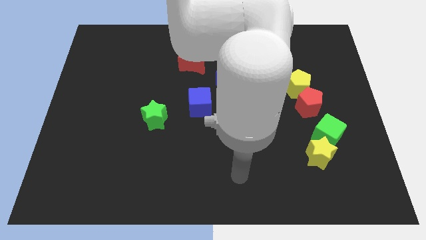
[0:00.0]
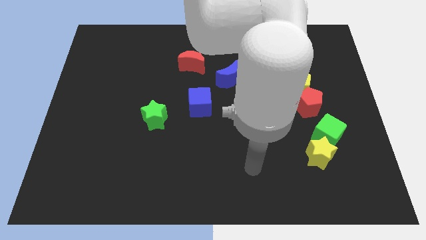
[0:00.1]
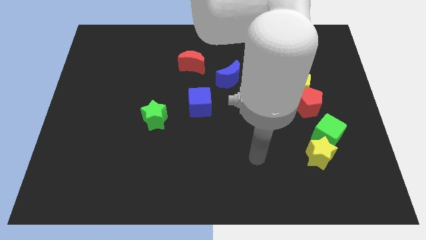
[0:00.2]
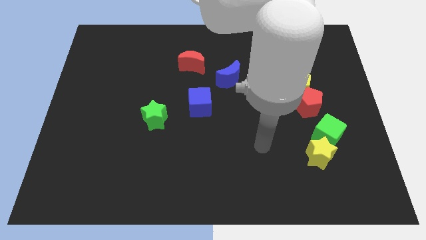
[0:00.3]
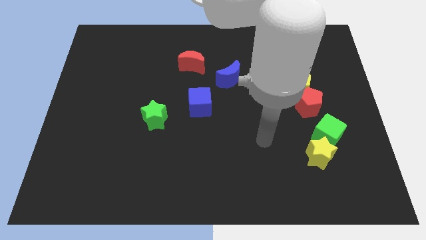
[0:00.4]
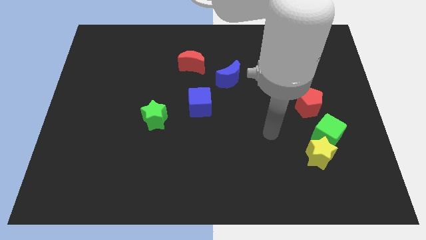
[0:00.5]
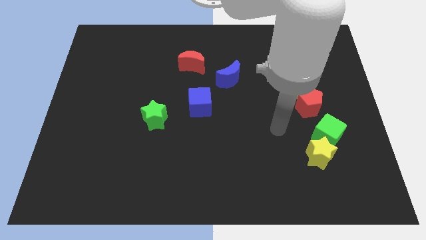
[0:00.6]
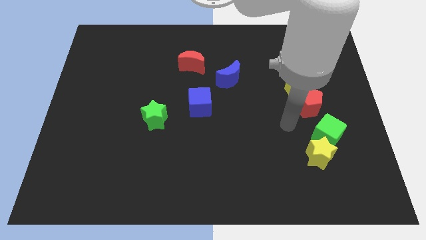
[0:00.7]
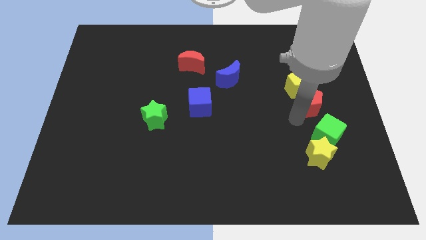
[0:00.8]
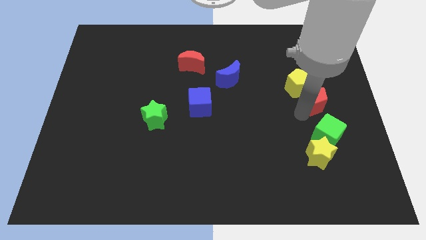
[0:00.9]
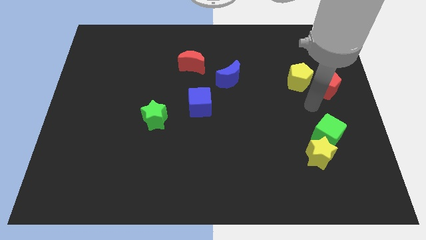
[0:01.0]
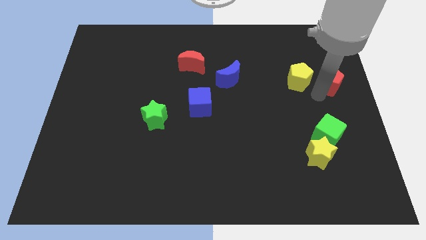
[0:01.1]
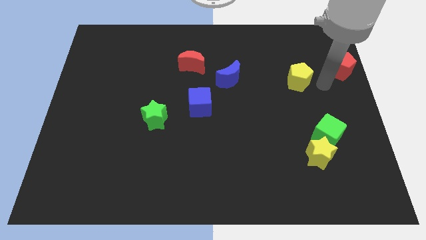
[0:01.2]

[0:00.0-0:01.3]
move the yellow pentagon away from the red pentagon

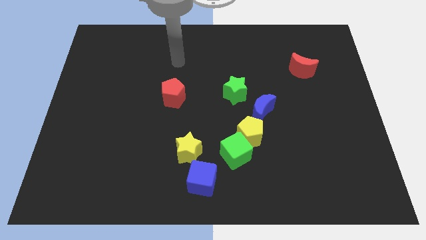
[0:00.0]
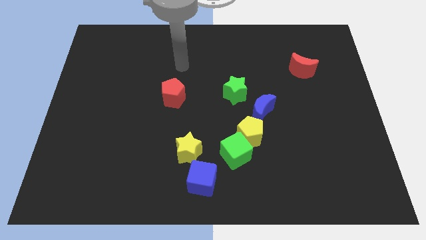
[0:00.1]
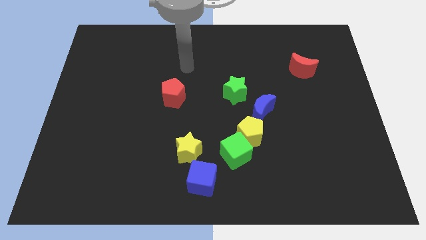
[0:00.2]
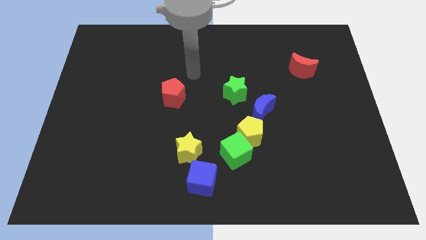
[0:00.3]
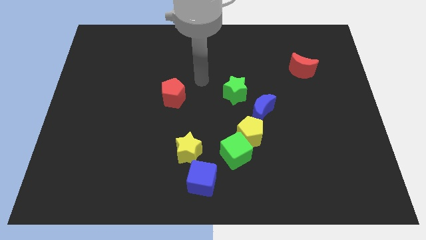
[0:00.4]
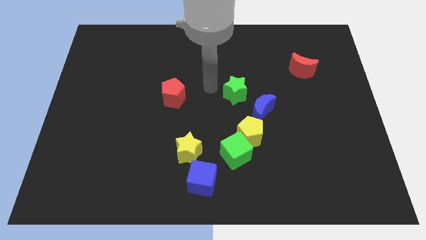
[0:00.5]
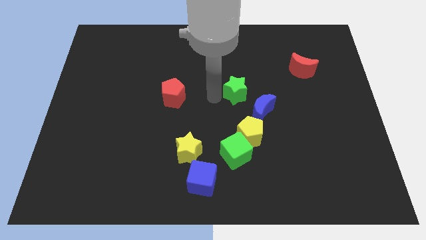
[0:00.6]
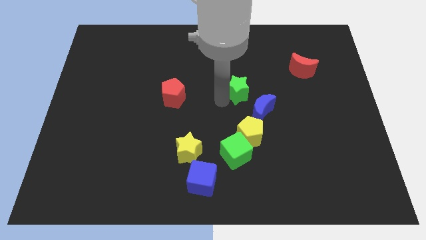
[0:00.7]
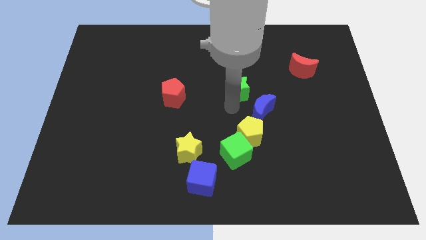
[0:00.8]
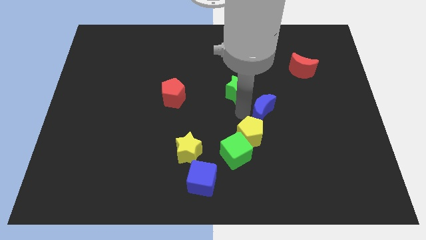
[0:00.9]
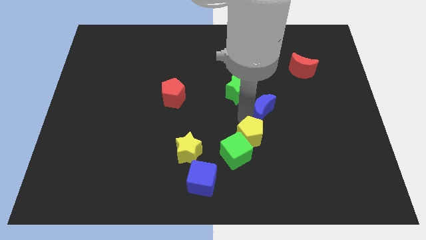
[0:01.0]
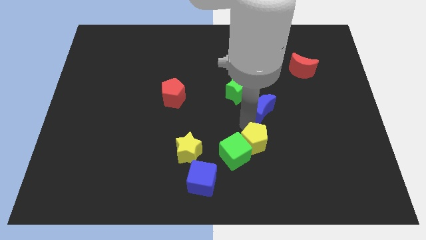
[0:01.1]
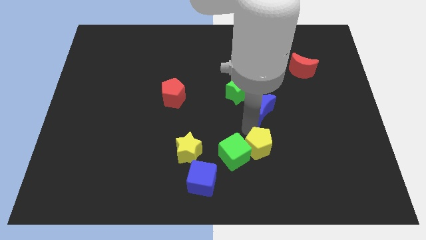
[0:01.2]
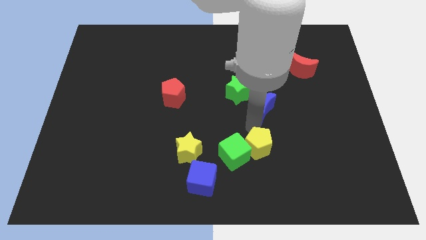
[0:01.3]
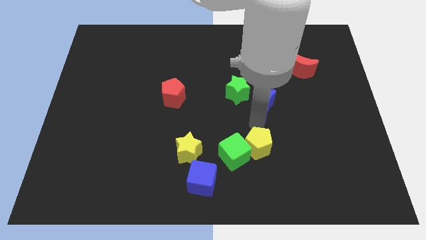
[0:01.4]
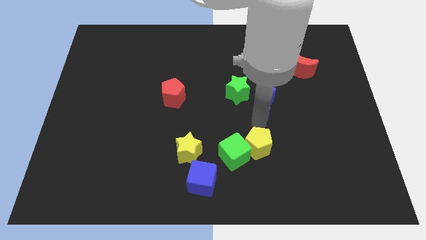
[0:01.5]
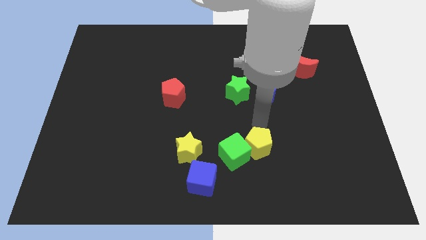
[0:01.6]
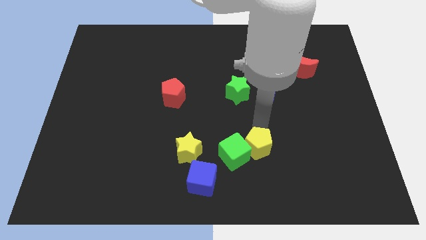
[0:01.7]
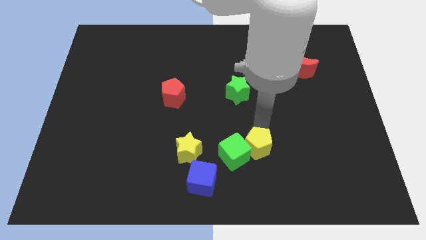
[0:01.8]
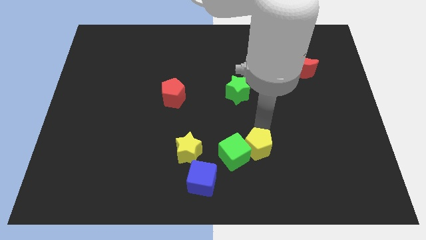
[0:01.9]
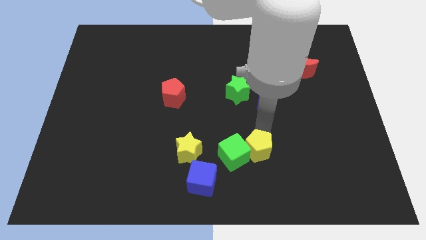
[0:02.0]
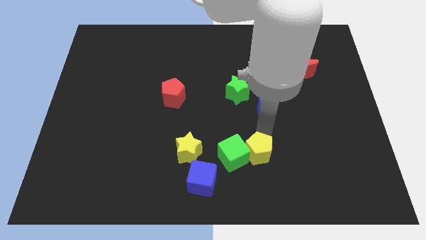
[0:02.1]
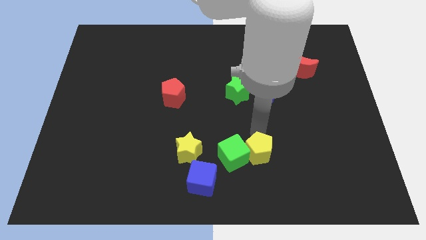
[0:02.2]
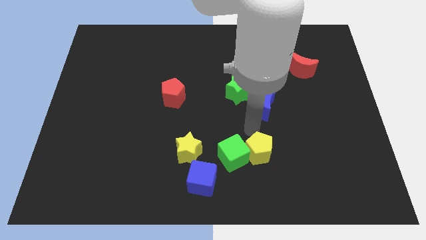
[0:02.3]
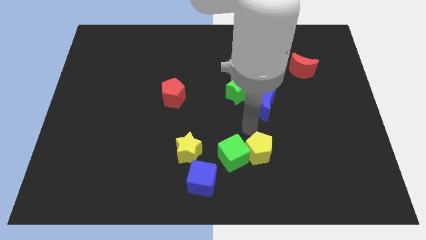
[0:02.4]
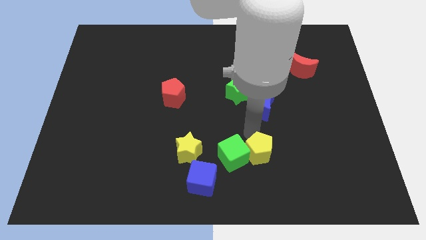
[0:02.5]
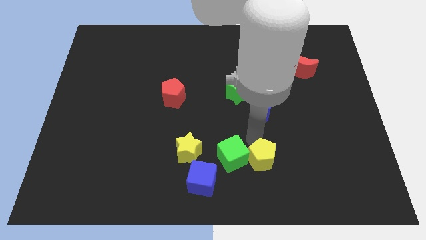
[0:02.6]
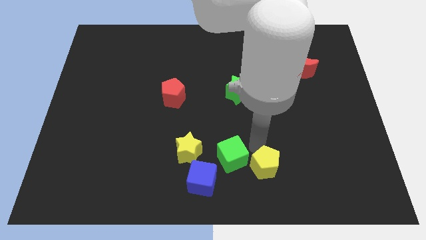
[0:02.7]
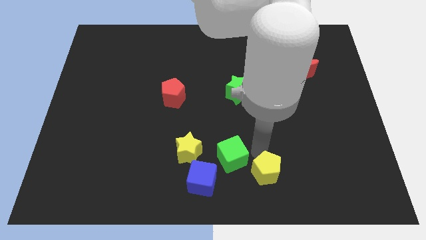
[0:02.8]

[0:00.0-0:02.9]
pull the yellow pentagon apart from the green cube and blue moon

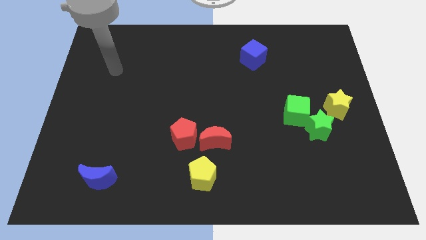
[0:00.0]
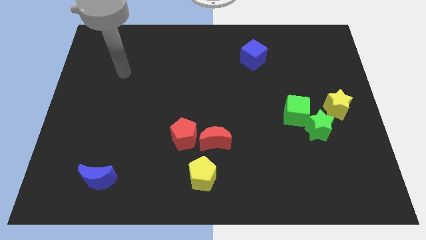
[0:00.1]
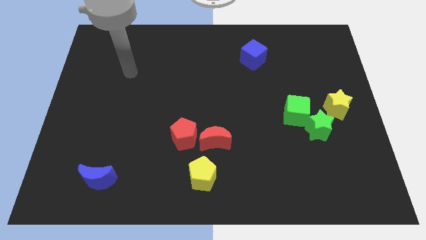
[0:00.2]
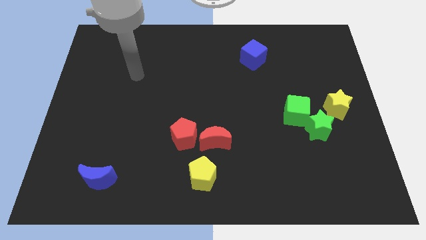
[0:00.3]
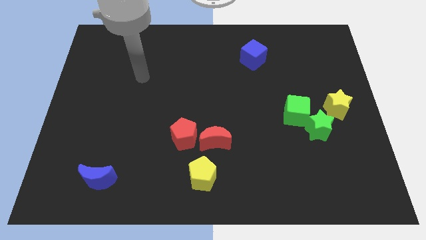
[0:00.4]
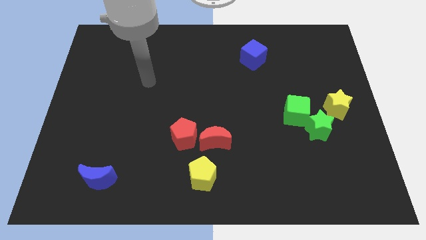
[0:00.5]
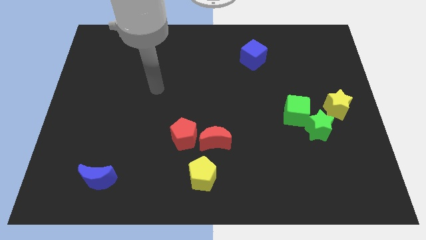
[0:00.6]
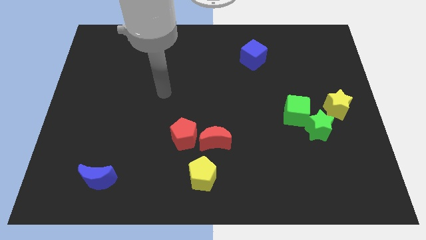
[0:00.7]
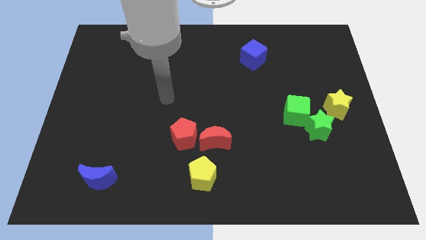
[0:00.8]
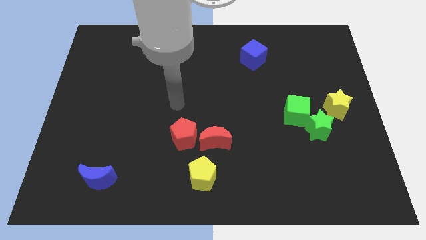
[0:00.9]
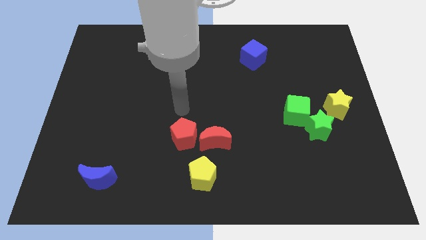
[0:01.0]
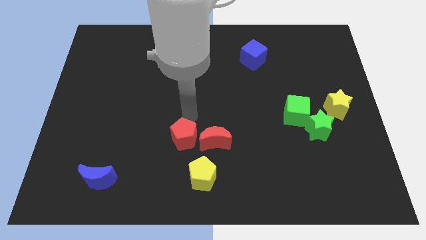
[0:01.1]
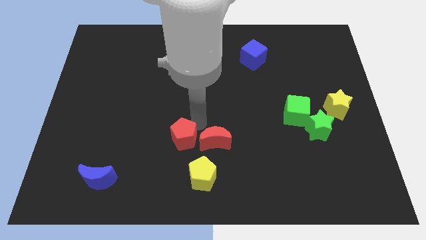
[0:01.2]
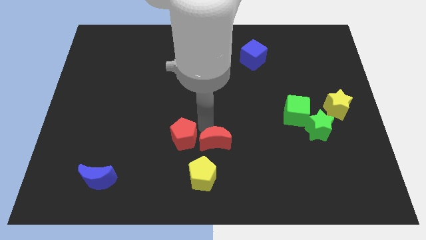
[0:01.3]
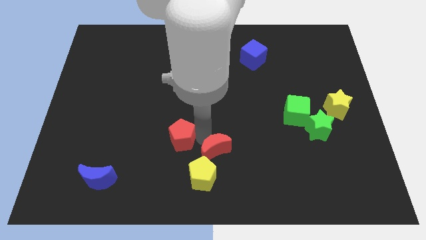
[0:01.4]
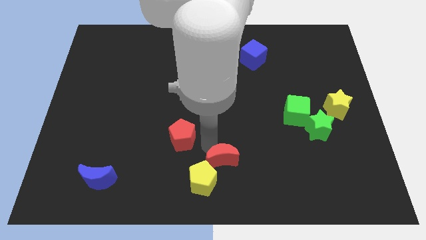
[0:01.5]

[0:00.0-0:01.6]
move the red pentagon away from the red moon

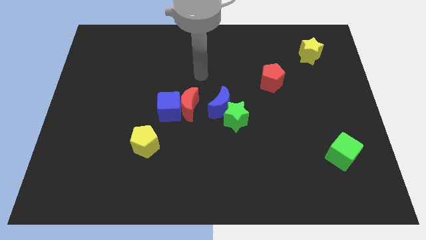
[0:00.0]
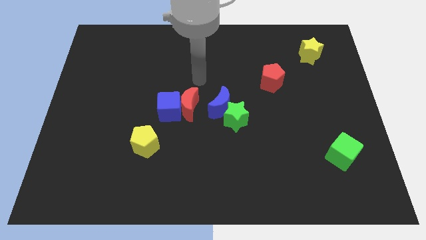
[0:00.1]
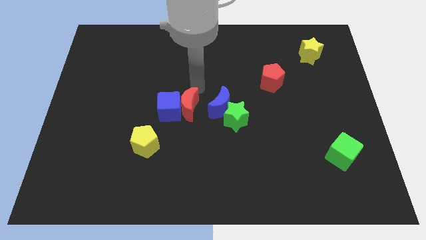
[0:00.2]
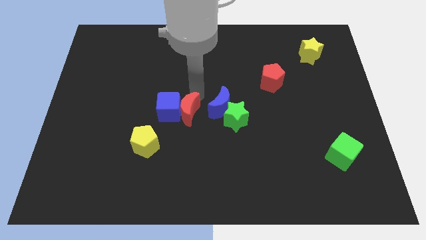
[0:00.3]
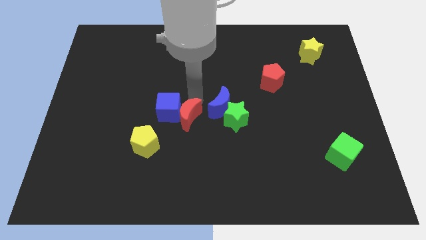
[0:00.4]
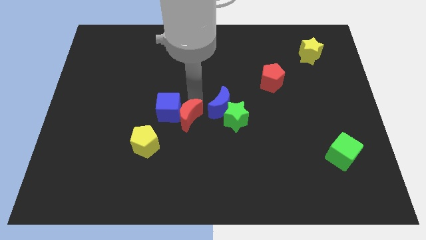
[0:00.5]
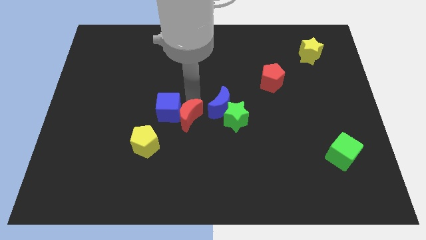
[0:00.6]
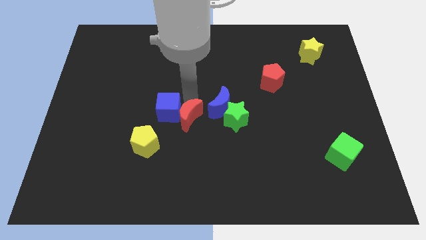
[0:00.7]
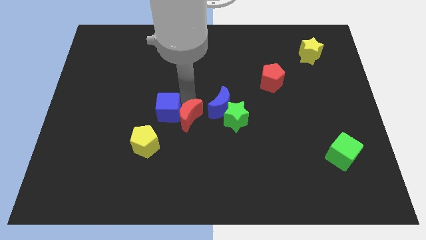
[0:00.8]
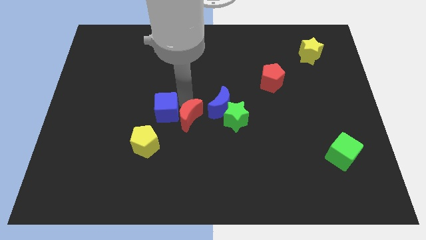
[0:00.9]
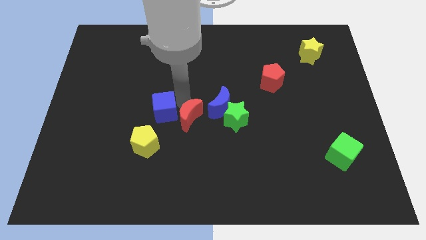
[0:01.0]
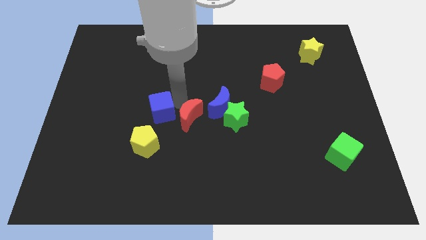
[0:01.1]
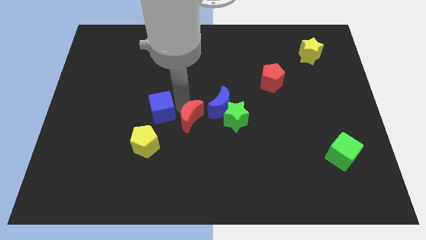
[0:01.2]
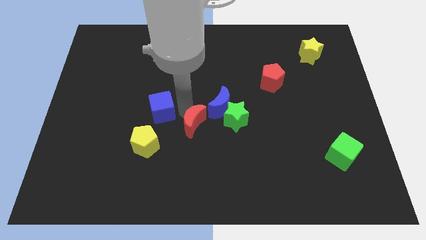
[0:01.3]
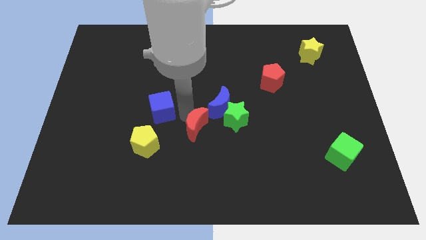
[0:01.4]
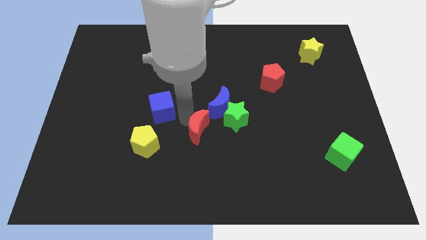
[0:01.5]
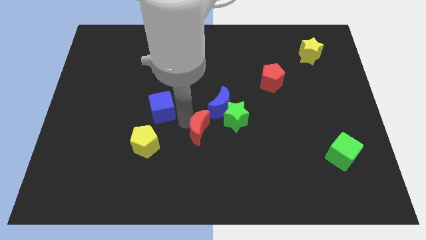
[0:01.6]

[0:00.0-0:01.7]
move the blue cube away from the red moon

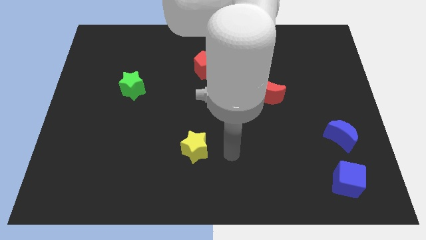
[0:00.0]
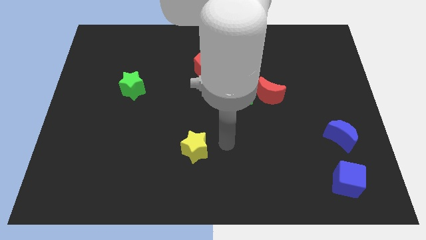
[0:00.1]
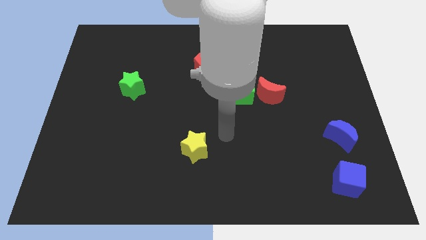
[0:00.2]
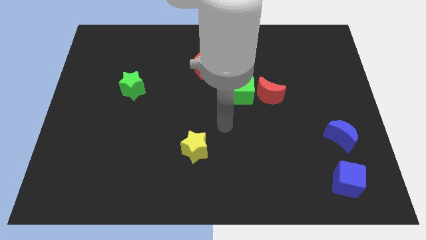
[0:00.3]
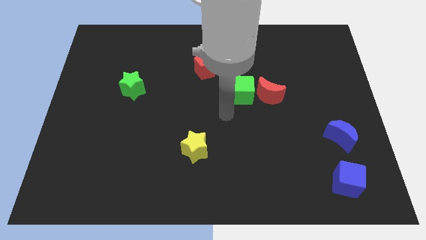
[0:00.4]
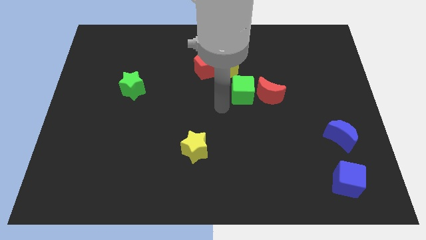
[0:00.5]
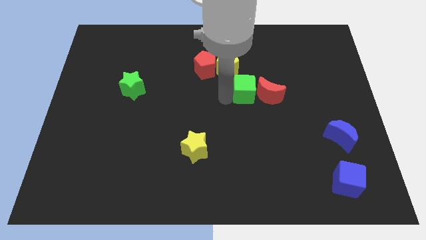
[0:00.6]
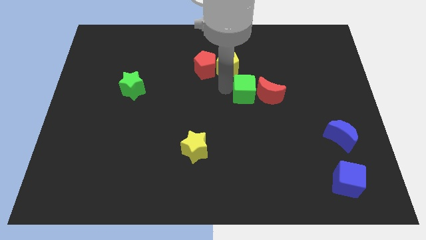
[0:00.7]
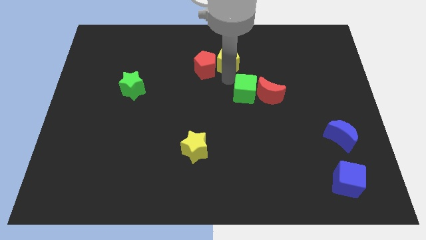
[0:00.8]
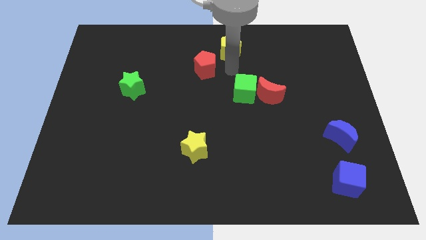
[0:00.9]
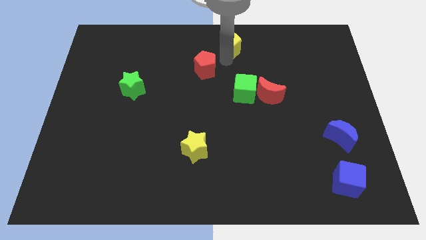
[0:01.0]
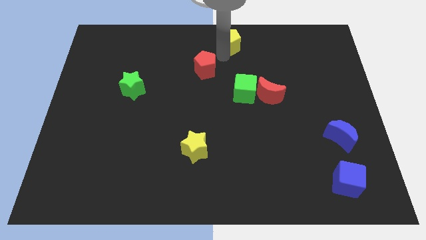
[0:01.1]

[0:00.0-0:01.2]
pull the red pentagon apart from the yellow pentagon

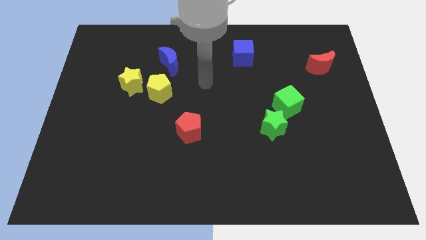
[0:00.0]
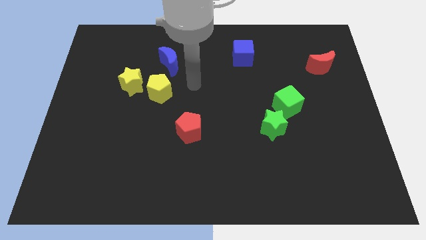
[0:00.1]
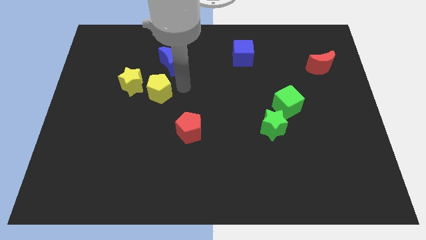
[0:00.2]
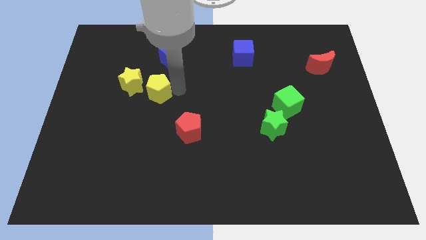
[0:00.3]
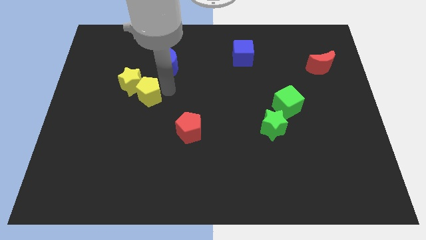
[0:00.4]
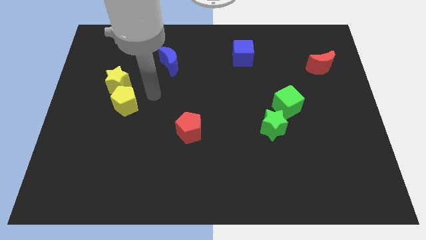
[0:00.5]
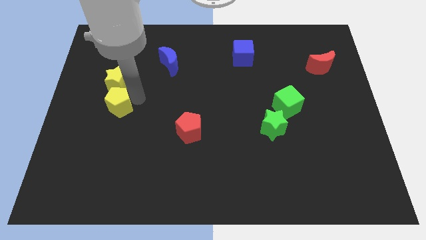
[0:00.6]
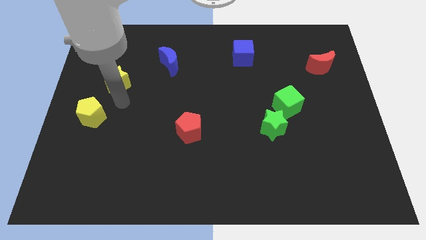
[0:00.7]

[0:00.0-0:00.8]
separate the yellow star from the yellow pentagon
